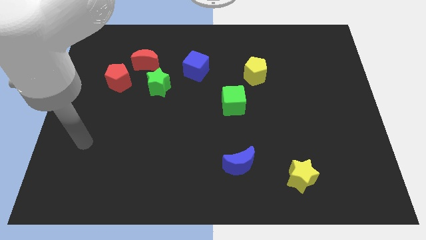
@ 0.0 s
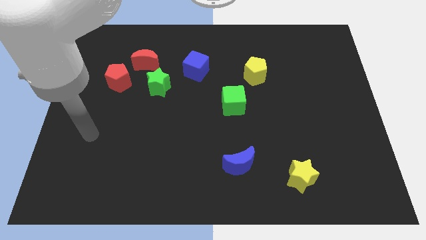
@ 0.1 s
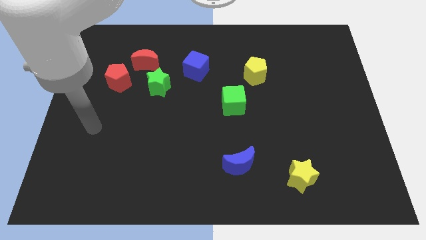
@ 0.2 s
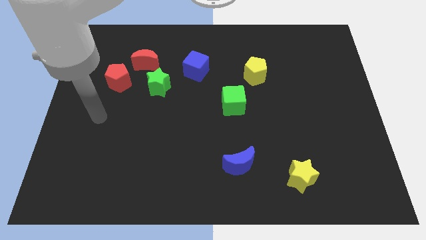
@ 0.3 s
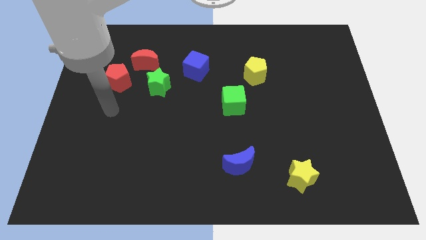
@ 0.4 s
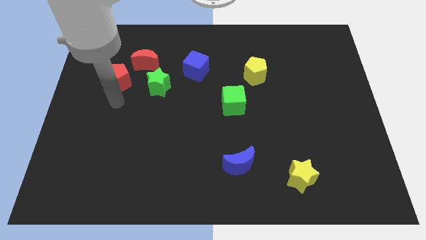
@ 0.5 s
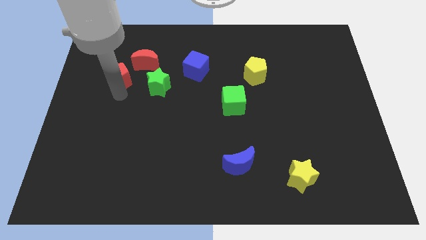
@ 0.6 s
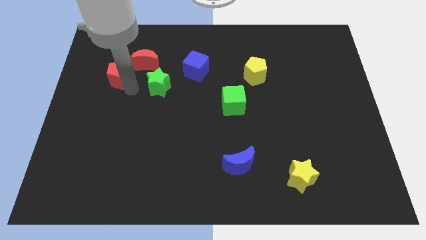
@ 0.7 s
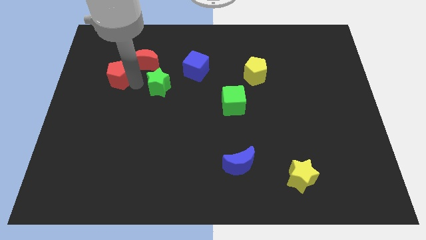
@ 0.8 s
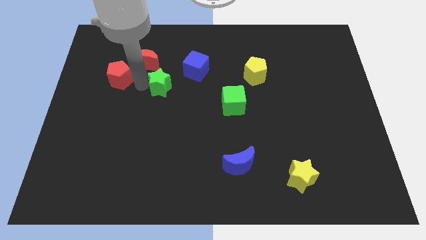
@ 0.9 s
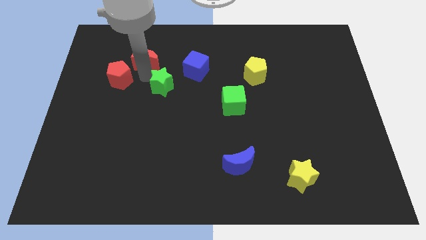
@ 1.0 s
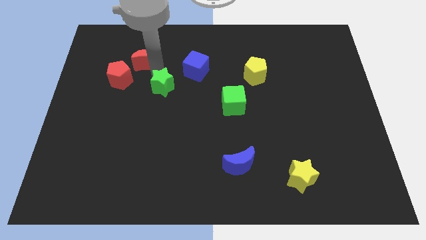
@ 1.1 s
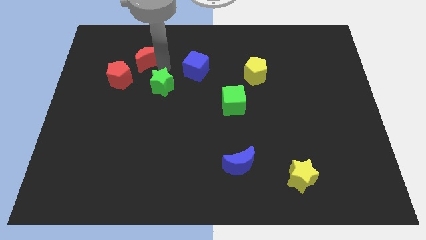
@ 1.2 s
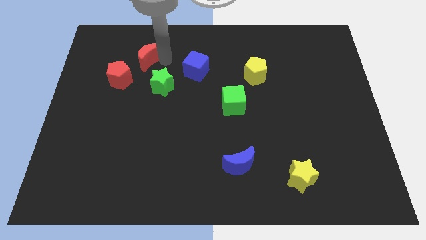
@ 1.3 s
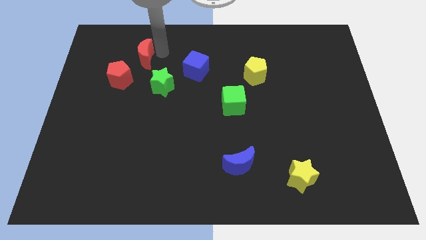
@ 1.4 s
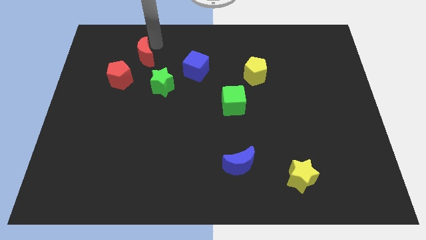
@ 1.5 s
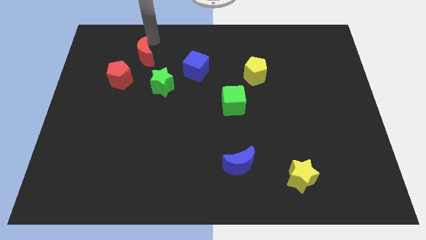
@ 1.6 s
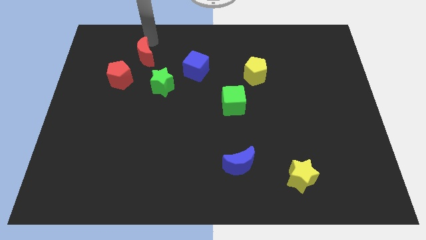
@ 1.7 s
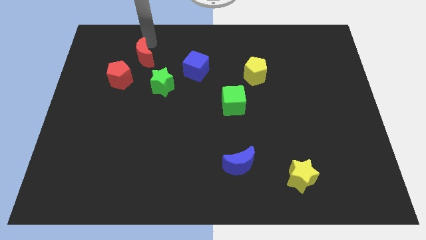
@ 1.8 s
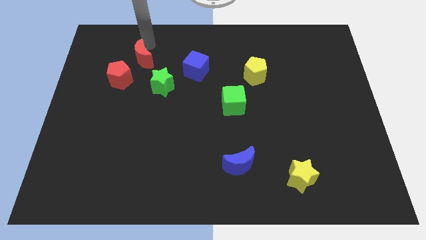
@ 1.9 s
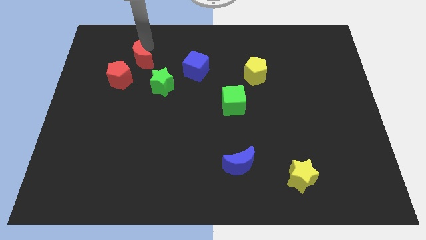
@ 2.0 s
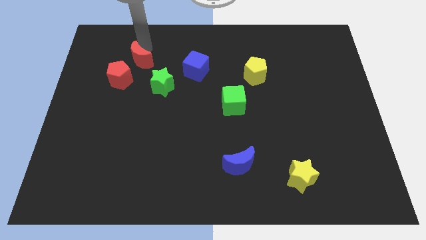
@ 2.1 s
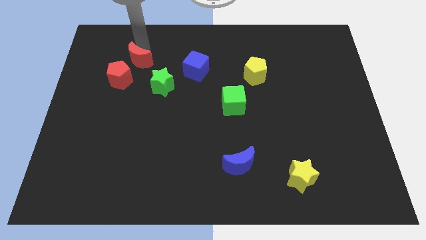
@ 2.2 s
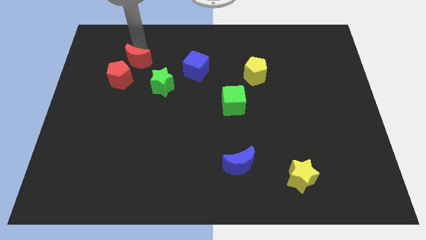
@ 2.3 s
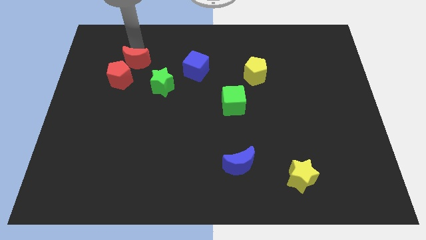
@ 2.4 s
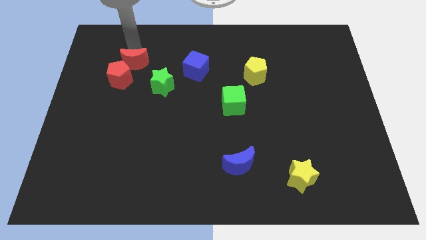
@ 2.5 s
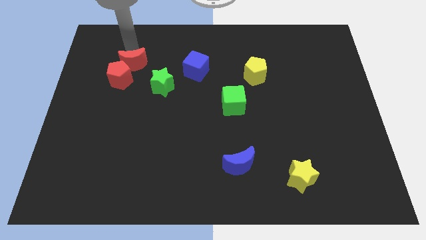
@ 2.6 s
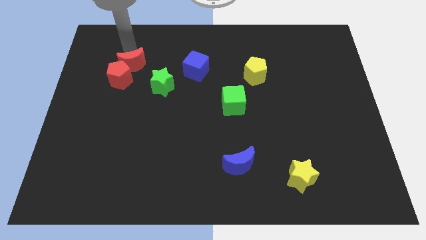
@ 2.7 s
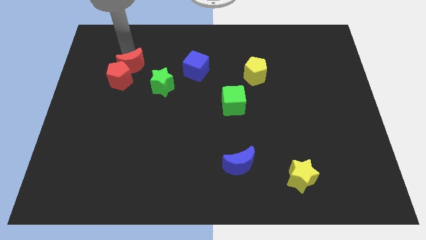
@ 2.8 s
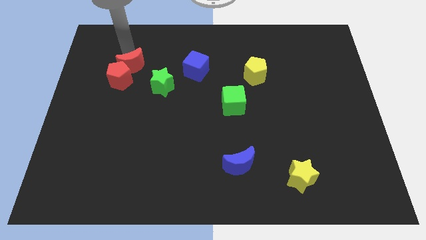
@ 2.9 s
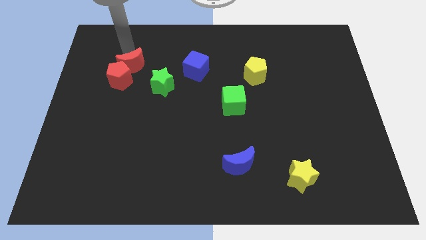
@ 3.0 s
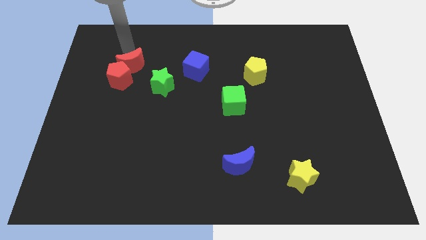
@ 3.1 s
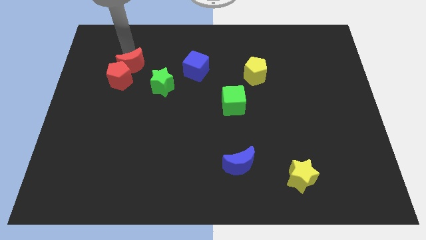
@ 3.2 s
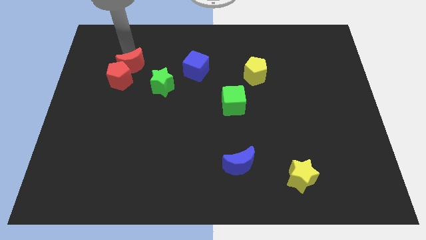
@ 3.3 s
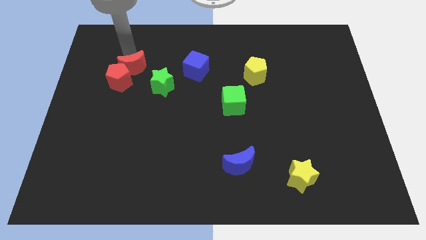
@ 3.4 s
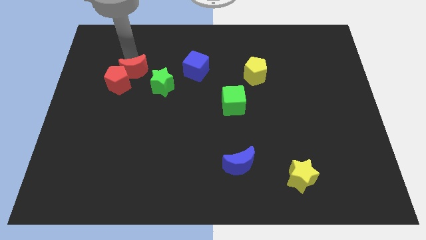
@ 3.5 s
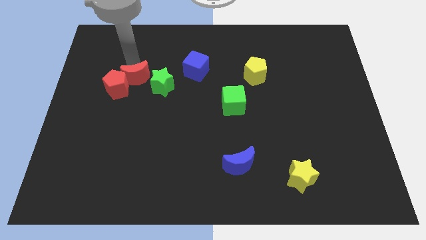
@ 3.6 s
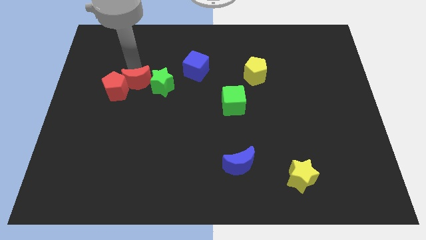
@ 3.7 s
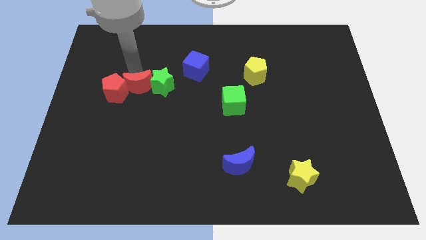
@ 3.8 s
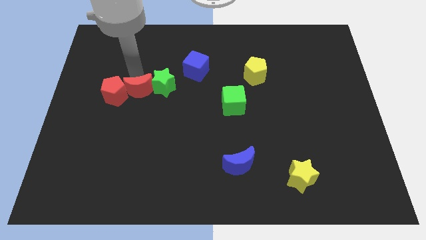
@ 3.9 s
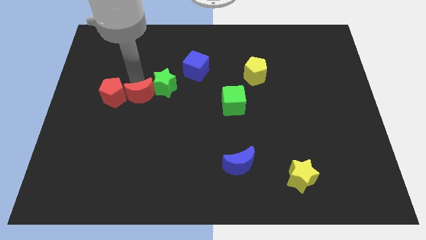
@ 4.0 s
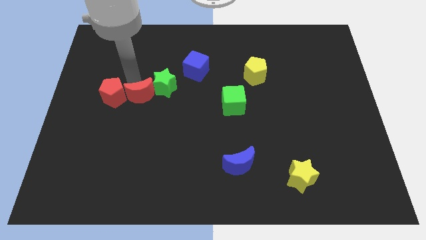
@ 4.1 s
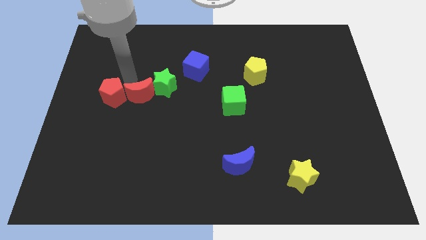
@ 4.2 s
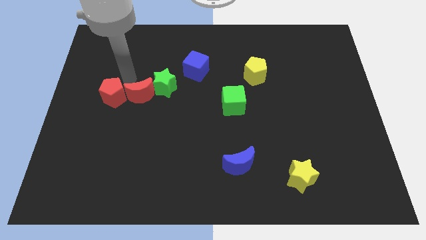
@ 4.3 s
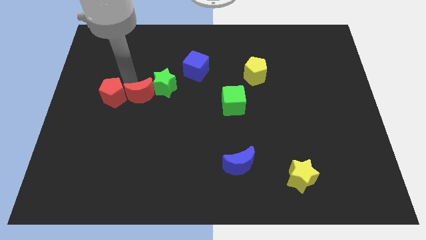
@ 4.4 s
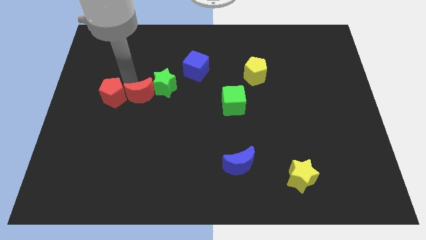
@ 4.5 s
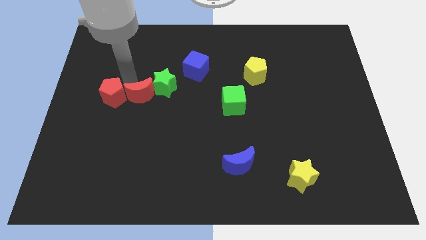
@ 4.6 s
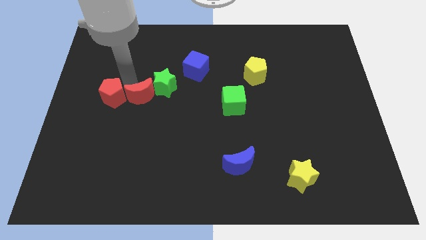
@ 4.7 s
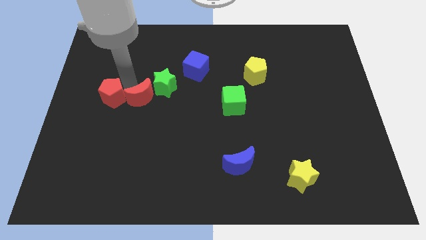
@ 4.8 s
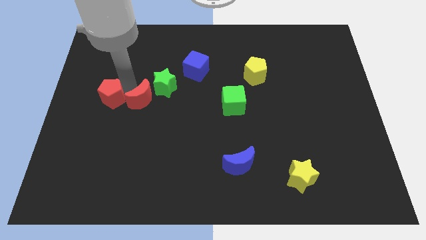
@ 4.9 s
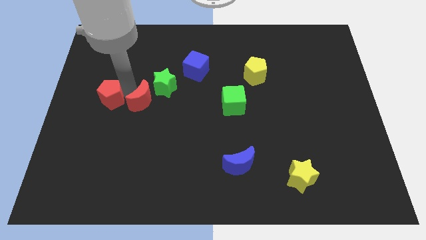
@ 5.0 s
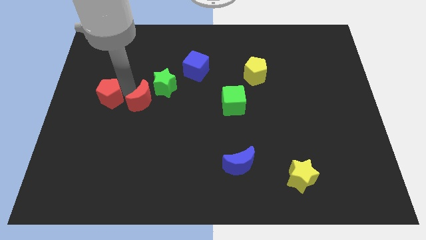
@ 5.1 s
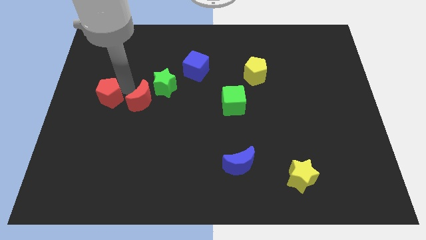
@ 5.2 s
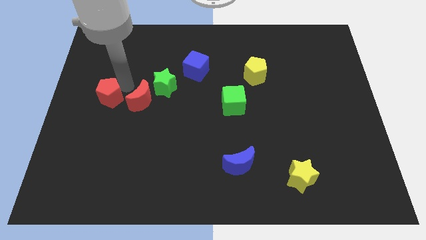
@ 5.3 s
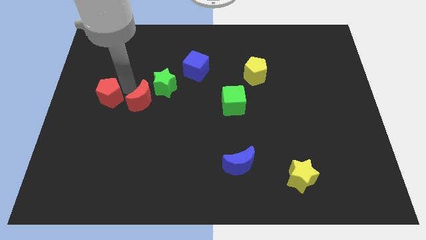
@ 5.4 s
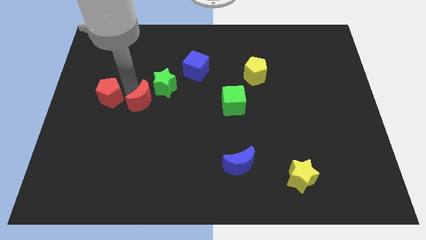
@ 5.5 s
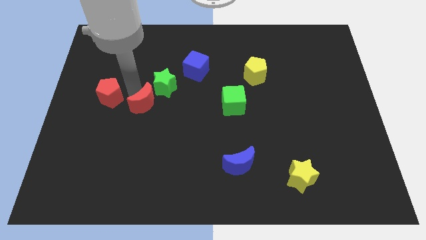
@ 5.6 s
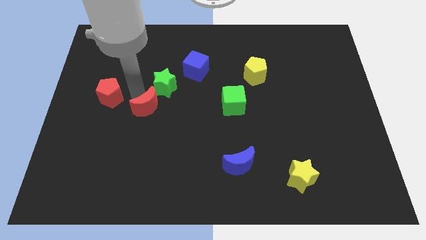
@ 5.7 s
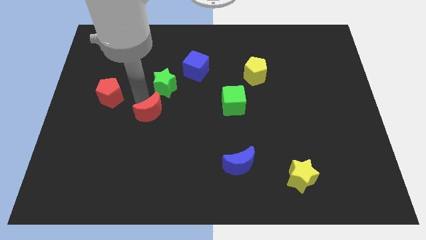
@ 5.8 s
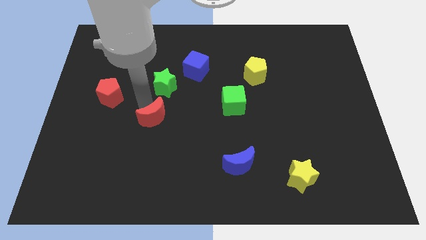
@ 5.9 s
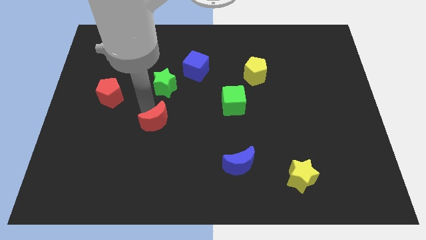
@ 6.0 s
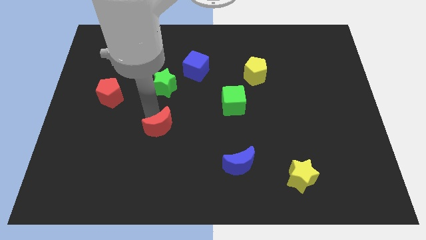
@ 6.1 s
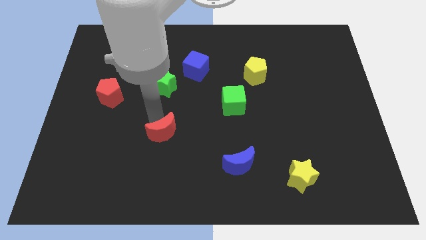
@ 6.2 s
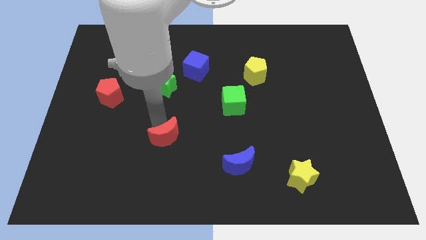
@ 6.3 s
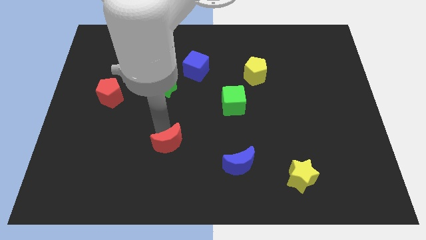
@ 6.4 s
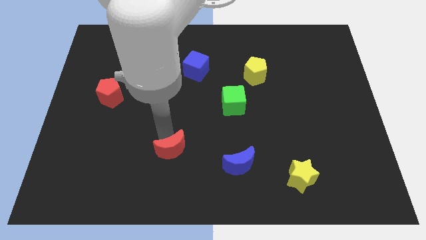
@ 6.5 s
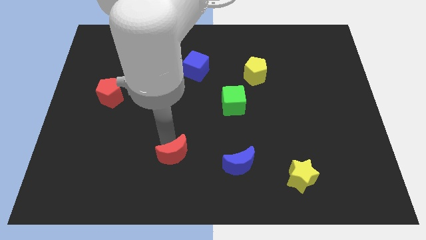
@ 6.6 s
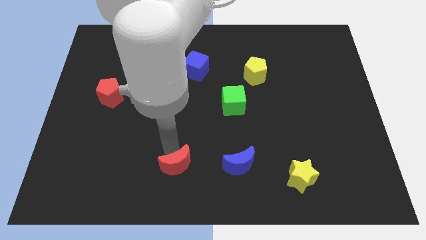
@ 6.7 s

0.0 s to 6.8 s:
put the red moon to the bottom side
